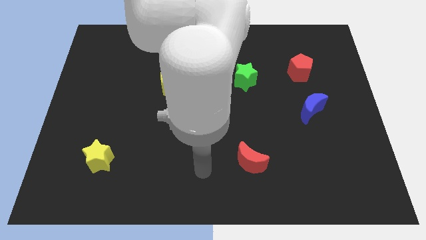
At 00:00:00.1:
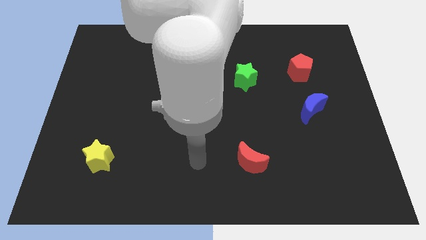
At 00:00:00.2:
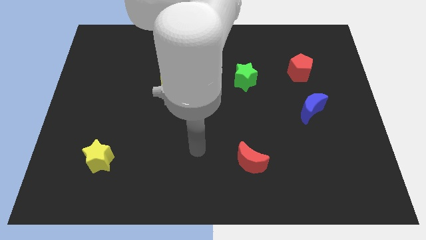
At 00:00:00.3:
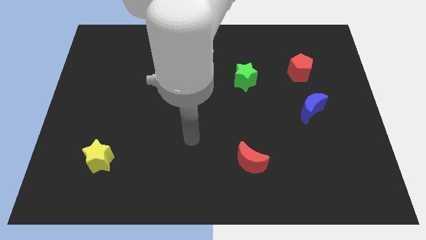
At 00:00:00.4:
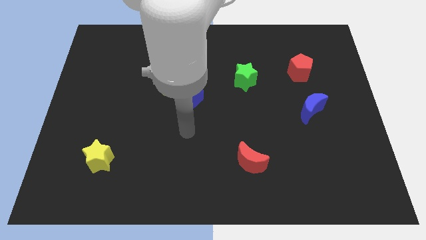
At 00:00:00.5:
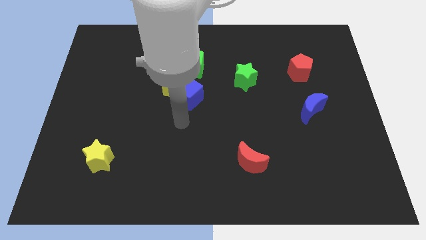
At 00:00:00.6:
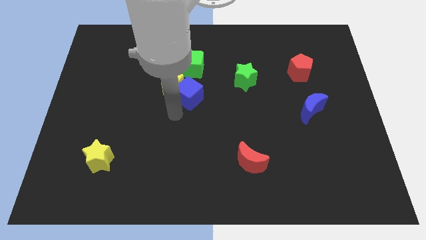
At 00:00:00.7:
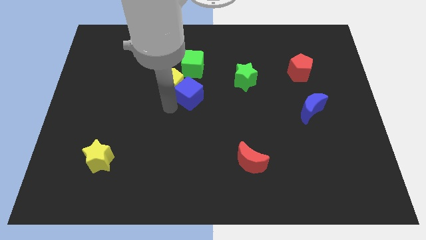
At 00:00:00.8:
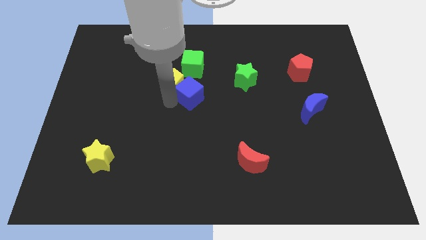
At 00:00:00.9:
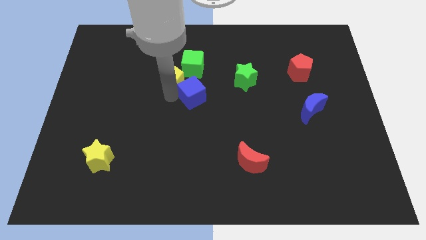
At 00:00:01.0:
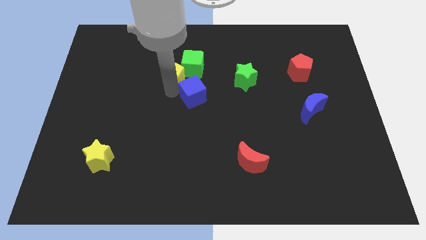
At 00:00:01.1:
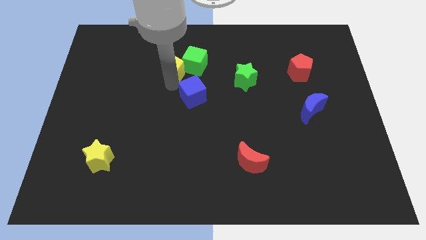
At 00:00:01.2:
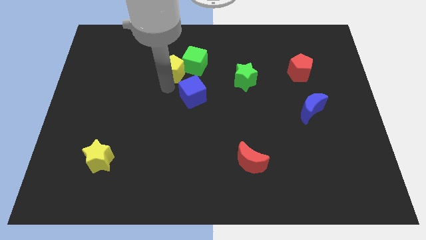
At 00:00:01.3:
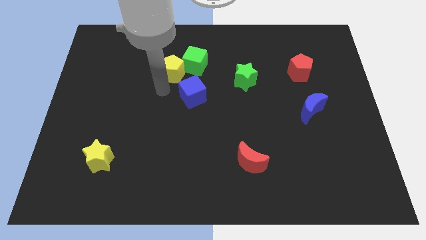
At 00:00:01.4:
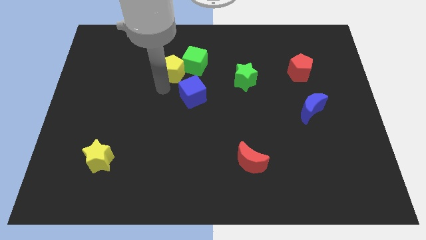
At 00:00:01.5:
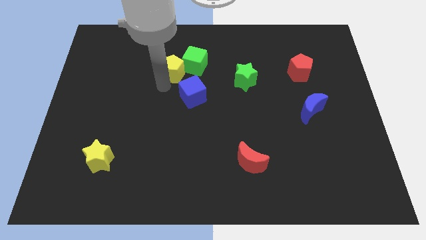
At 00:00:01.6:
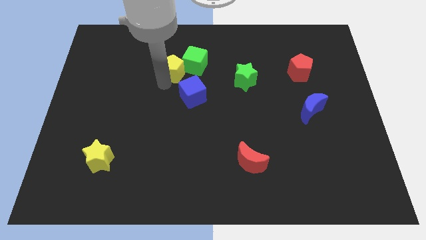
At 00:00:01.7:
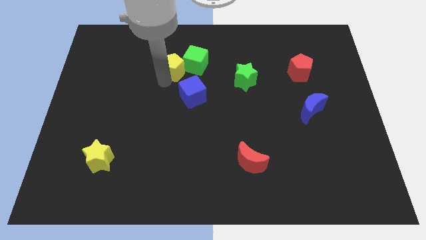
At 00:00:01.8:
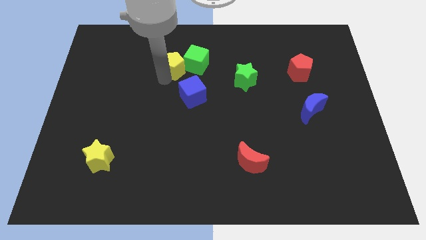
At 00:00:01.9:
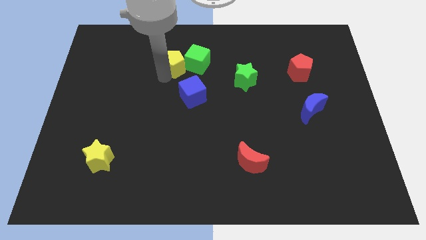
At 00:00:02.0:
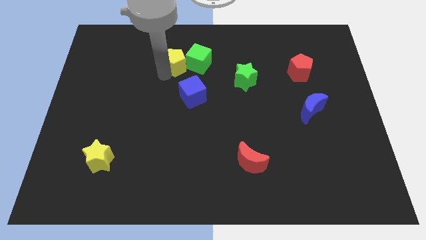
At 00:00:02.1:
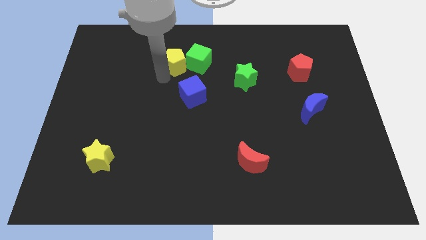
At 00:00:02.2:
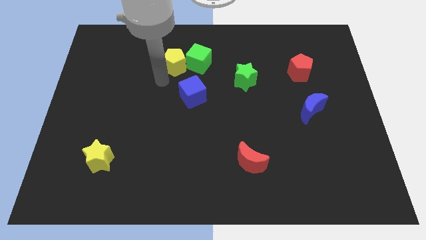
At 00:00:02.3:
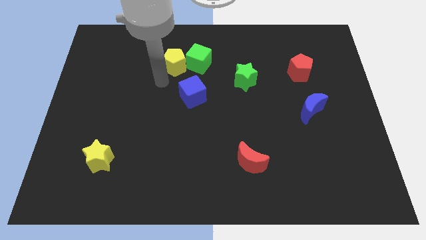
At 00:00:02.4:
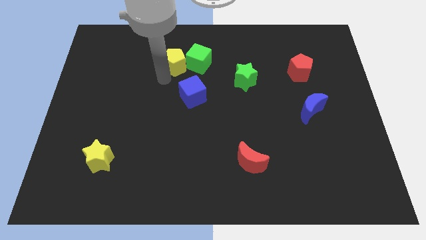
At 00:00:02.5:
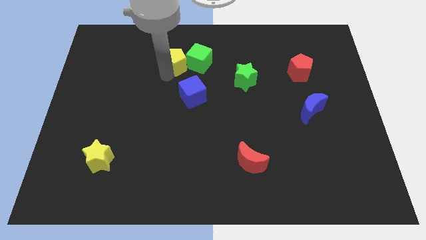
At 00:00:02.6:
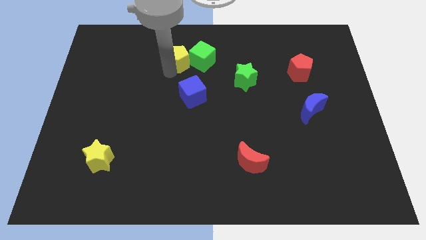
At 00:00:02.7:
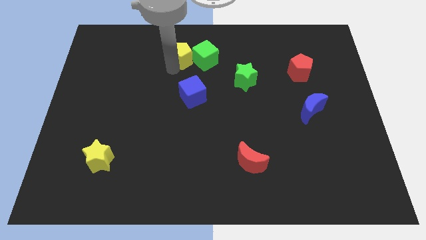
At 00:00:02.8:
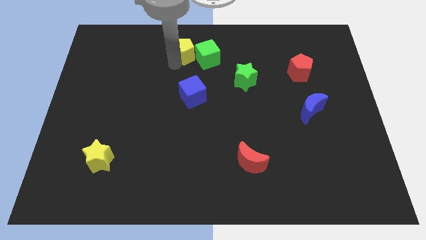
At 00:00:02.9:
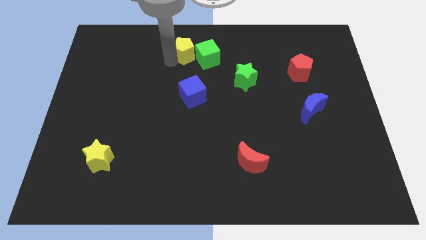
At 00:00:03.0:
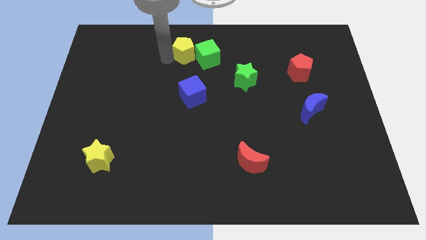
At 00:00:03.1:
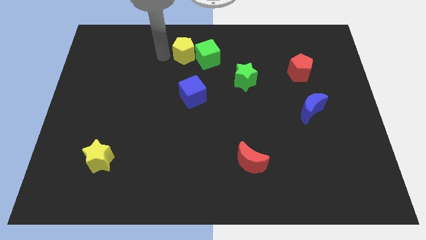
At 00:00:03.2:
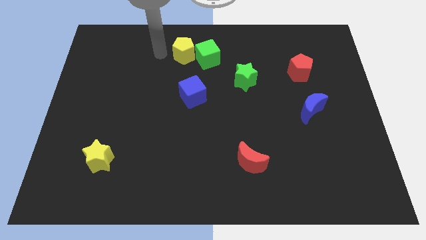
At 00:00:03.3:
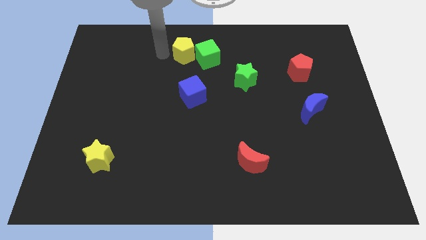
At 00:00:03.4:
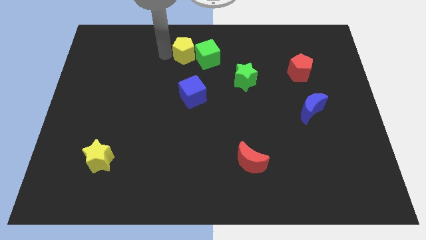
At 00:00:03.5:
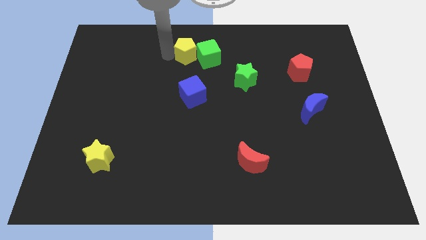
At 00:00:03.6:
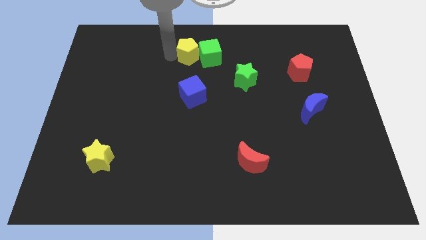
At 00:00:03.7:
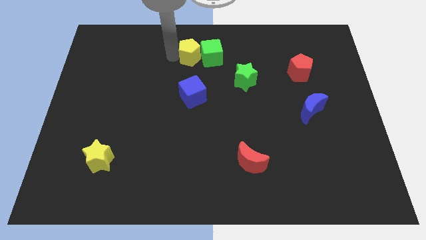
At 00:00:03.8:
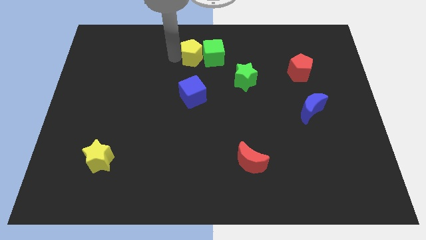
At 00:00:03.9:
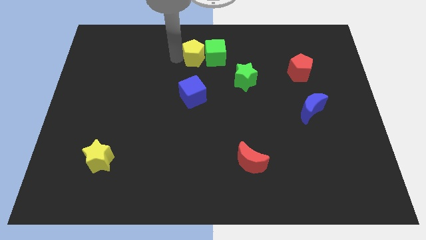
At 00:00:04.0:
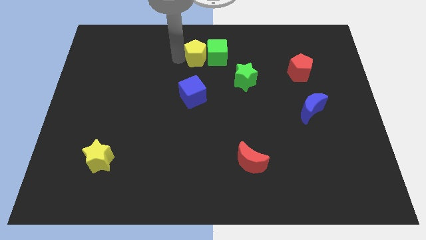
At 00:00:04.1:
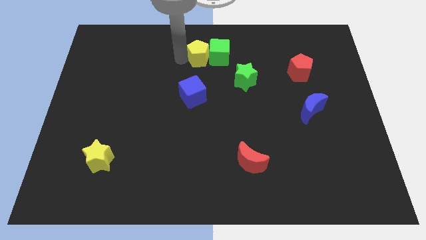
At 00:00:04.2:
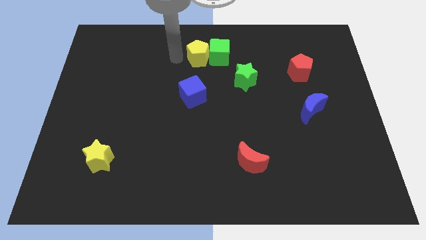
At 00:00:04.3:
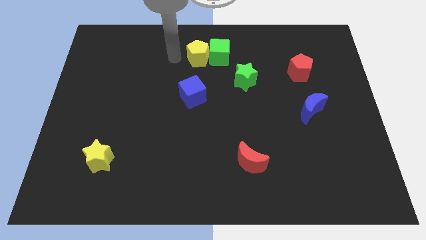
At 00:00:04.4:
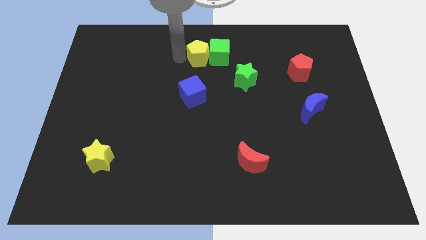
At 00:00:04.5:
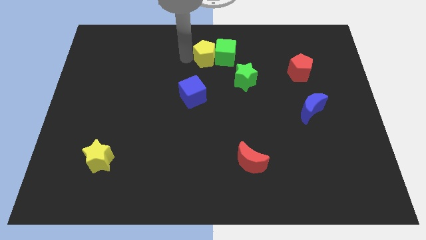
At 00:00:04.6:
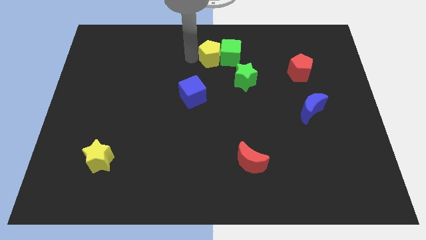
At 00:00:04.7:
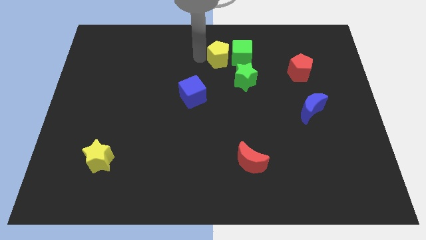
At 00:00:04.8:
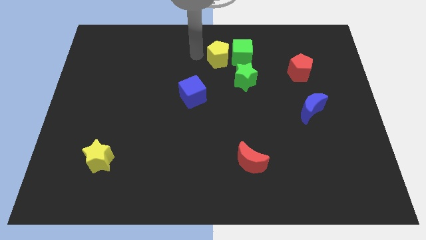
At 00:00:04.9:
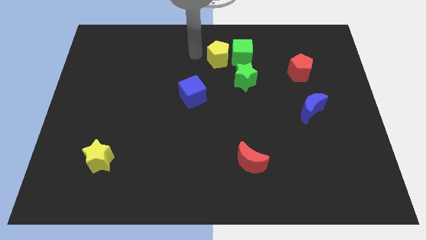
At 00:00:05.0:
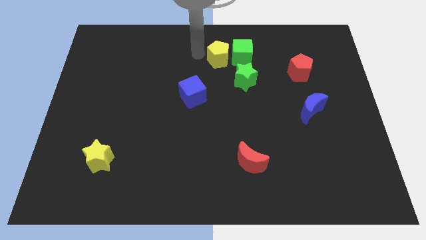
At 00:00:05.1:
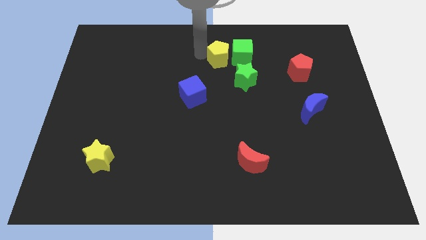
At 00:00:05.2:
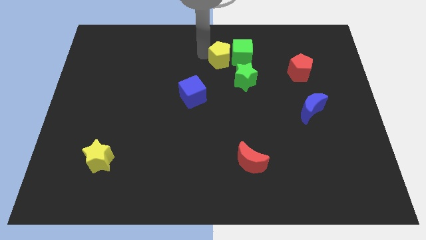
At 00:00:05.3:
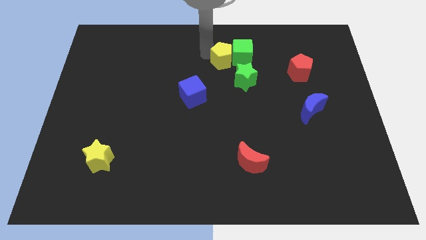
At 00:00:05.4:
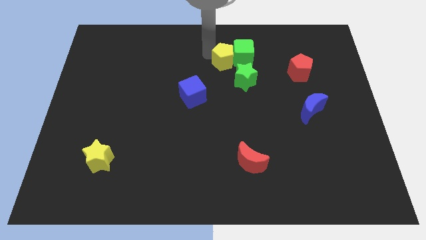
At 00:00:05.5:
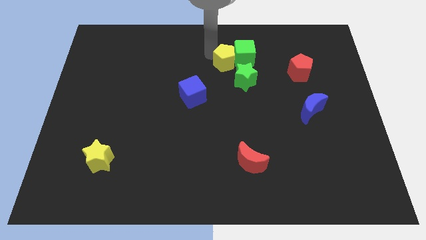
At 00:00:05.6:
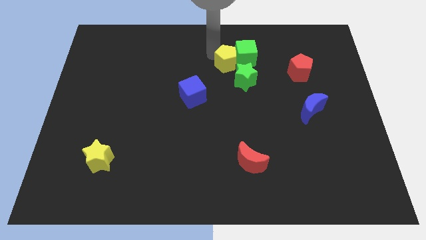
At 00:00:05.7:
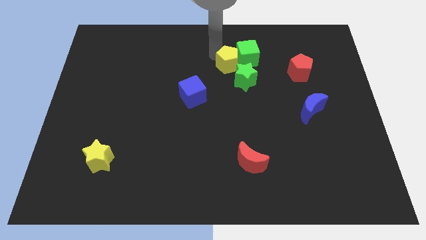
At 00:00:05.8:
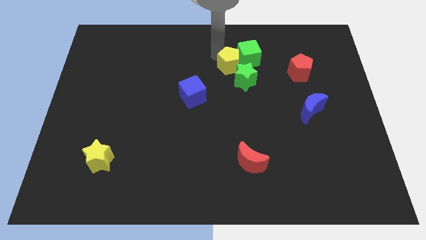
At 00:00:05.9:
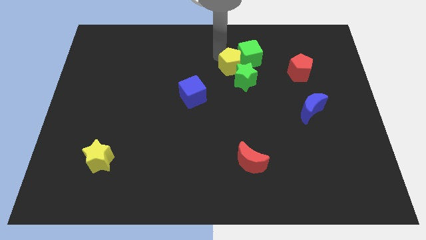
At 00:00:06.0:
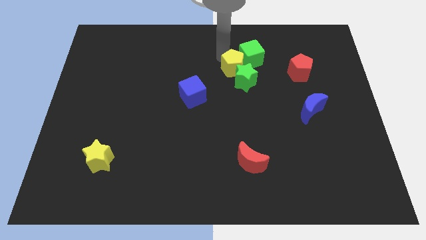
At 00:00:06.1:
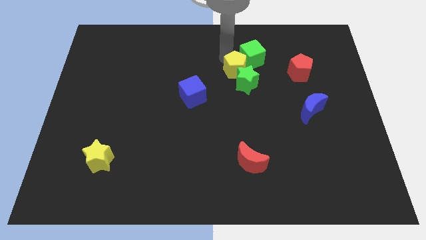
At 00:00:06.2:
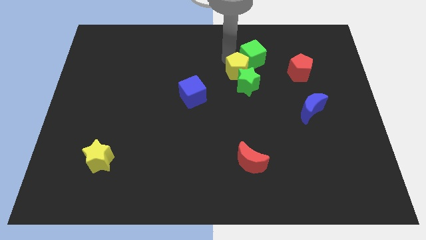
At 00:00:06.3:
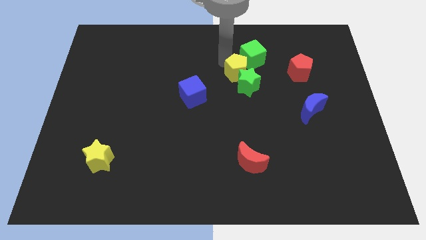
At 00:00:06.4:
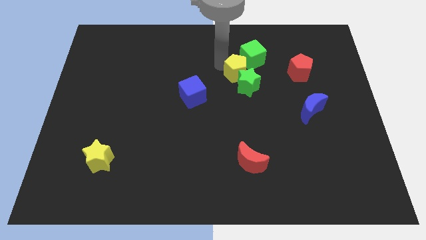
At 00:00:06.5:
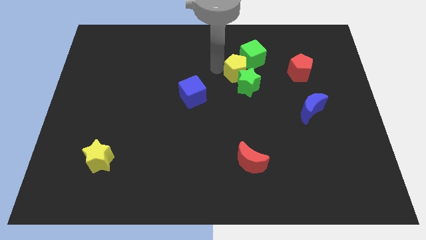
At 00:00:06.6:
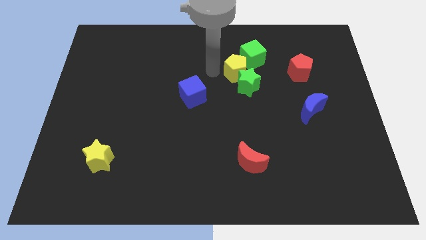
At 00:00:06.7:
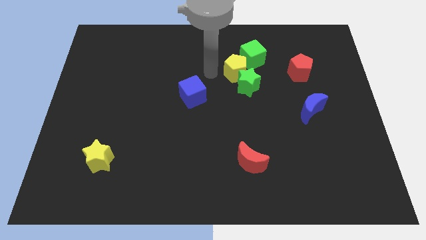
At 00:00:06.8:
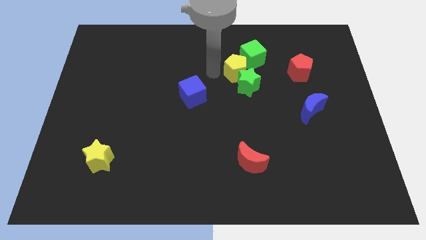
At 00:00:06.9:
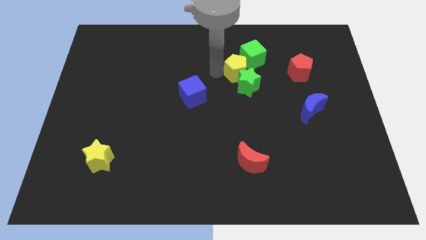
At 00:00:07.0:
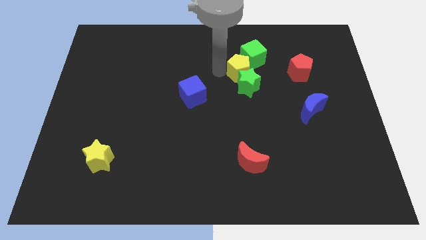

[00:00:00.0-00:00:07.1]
slide the yellow pentagon to the top right of the green star
